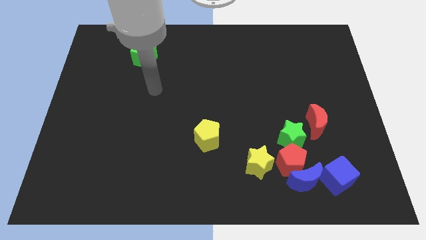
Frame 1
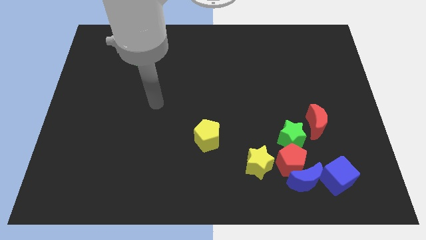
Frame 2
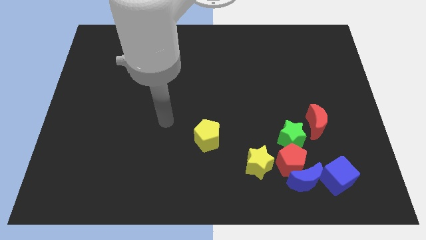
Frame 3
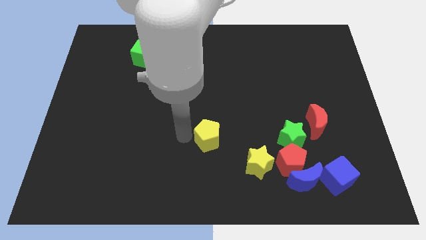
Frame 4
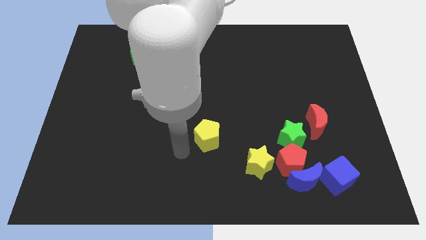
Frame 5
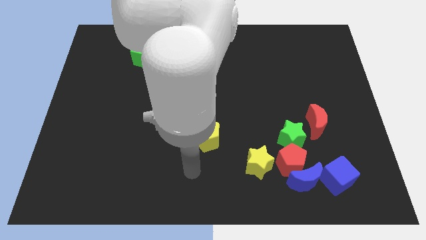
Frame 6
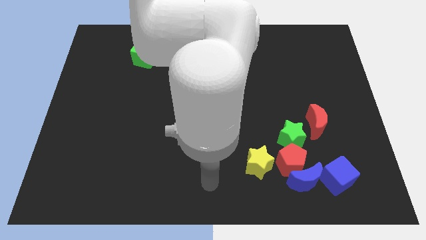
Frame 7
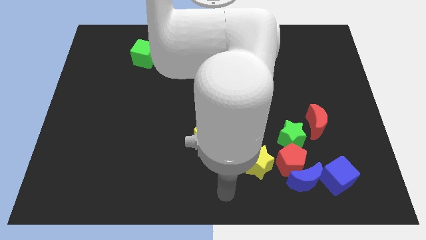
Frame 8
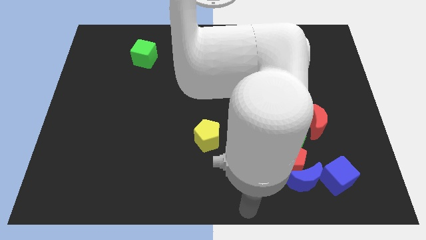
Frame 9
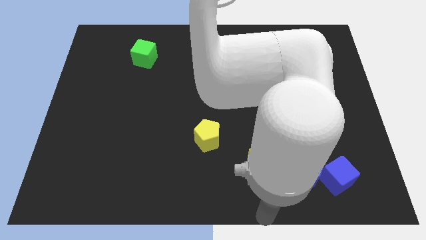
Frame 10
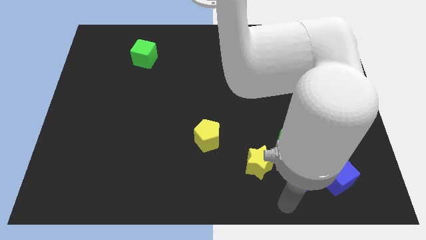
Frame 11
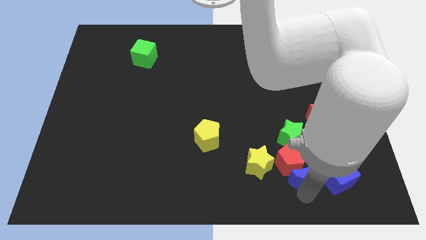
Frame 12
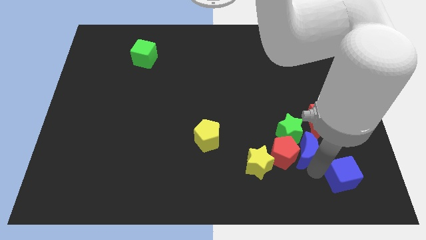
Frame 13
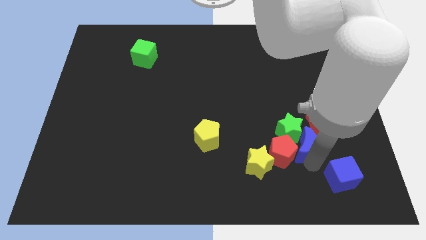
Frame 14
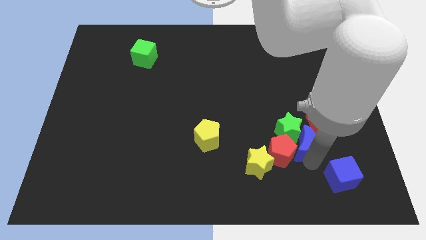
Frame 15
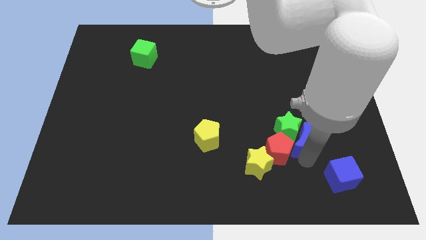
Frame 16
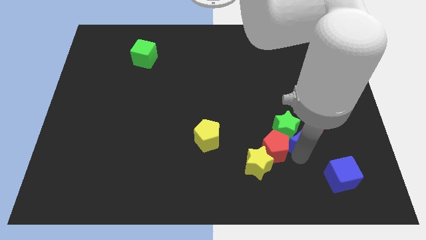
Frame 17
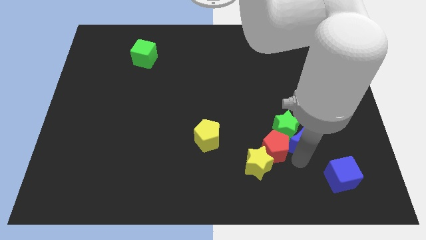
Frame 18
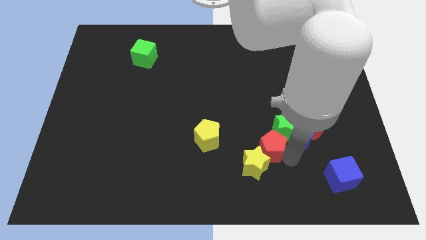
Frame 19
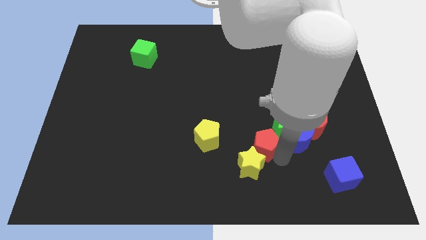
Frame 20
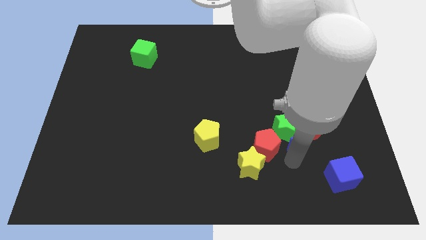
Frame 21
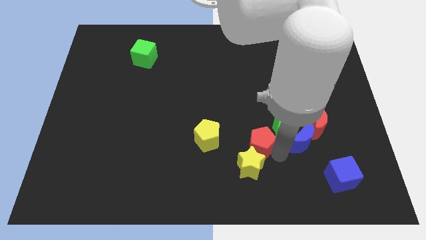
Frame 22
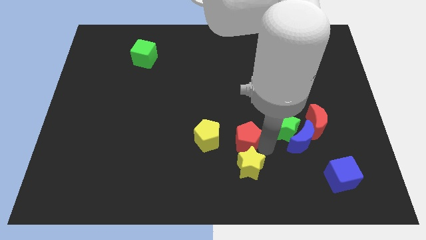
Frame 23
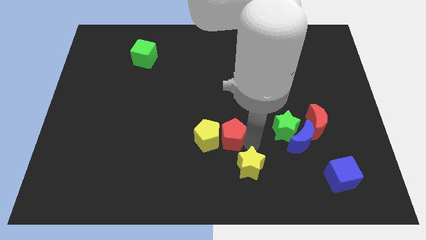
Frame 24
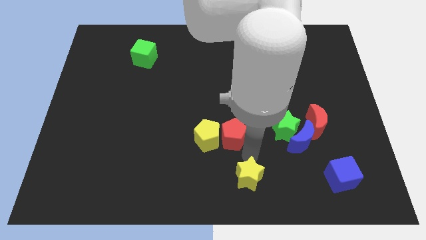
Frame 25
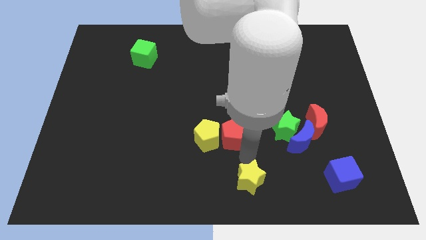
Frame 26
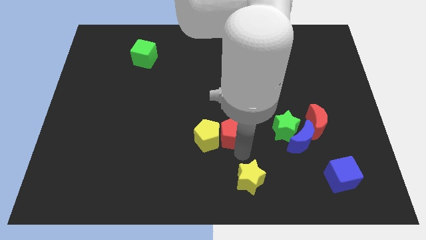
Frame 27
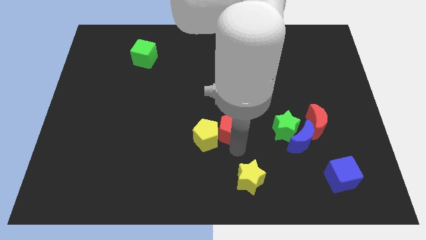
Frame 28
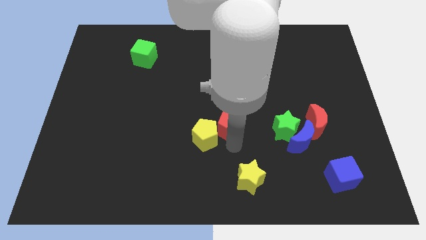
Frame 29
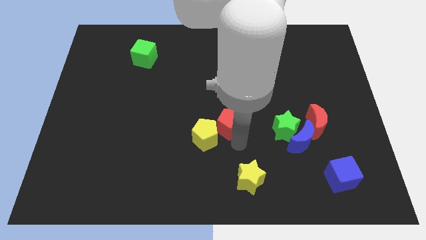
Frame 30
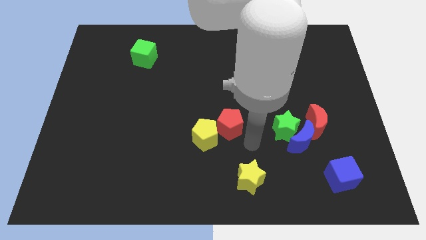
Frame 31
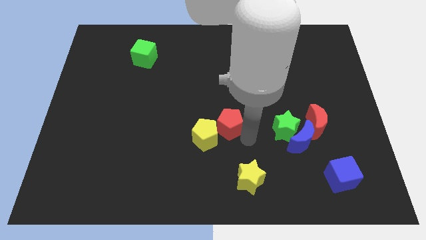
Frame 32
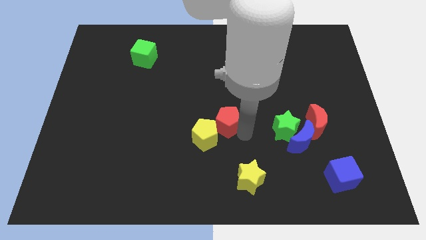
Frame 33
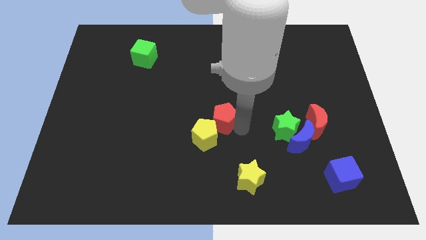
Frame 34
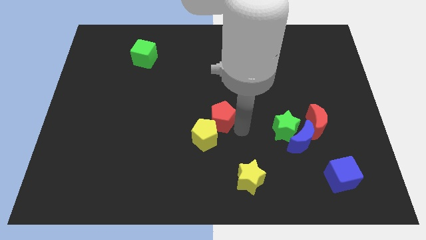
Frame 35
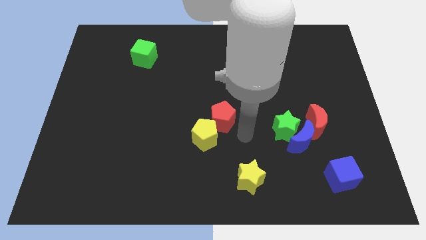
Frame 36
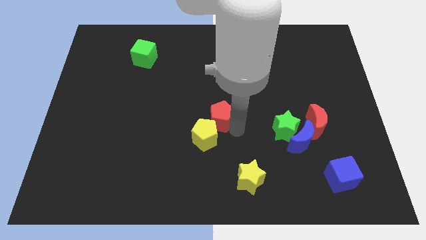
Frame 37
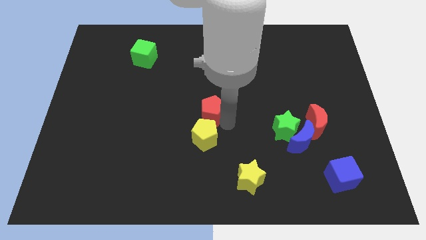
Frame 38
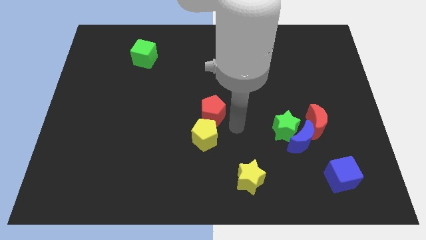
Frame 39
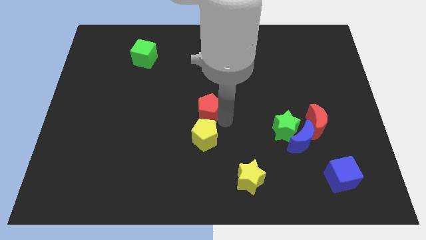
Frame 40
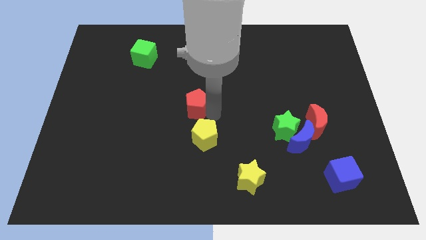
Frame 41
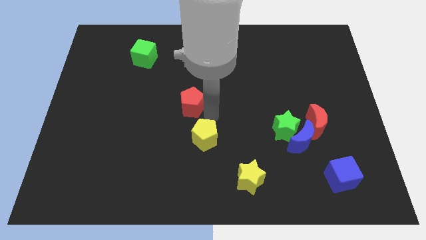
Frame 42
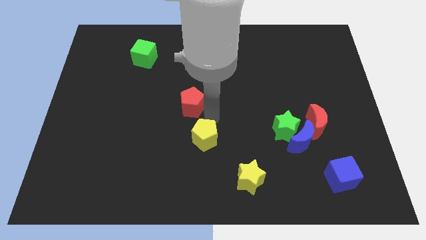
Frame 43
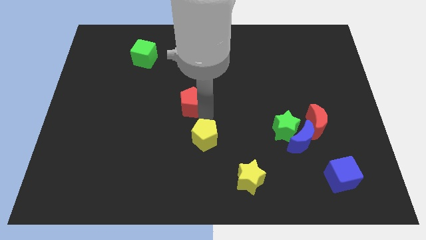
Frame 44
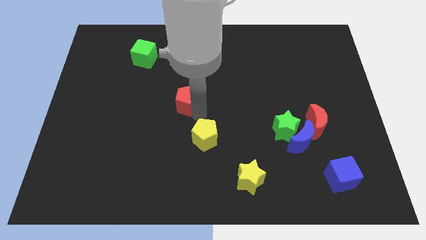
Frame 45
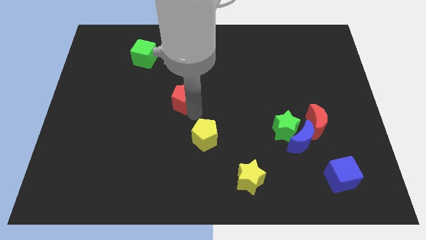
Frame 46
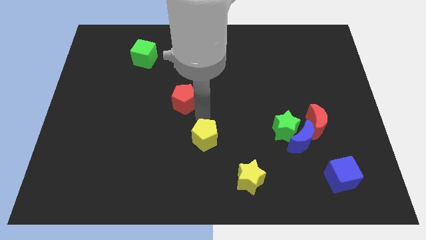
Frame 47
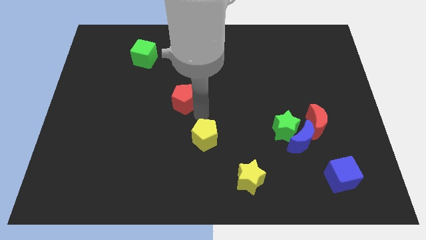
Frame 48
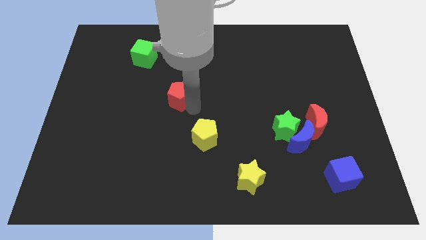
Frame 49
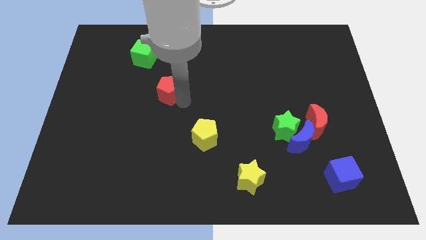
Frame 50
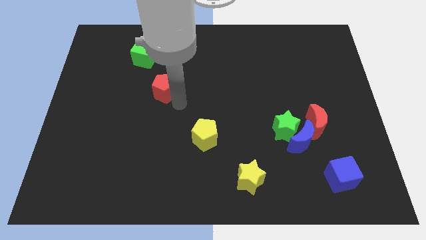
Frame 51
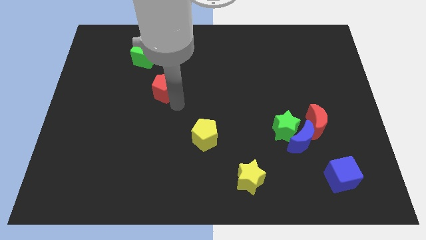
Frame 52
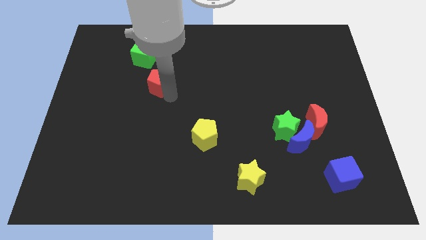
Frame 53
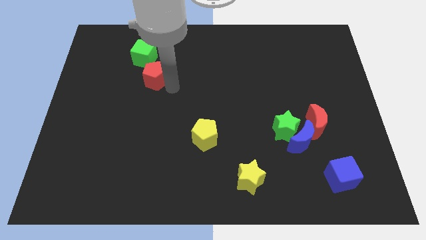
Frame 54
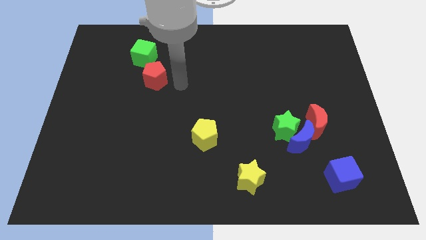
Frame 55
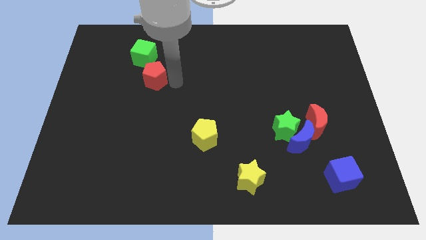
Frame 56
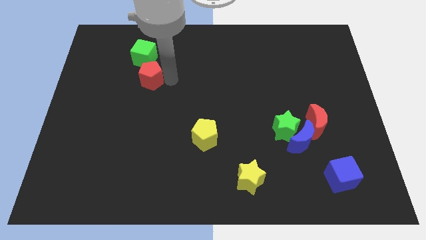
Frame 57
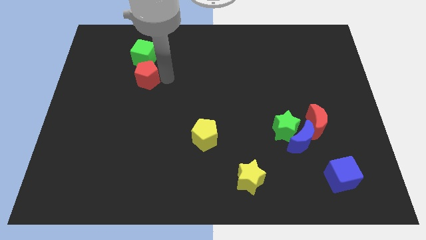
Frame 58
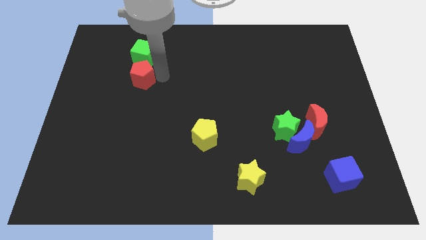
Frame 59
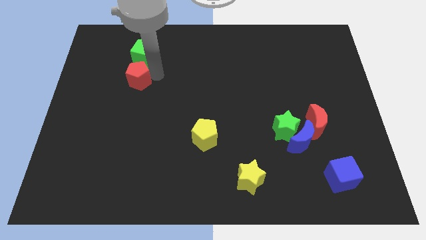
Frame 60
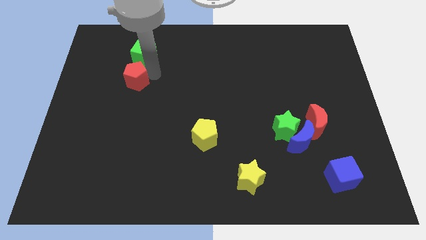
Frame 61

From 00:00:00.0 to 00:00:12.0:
put the red pentagon diagonally down and to the left of the green cube
